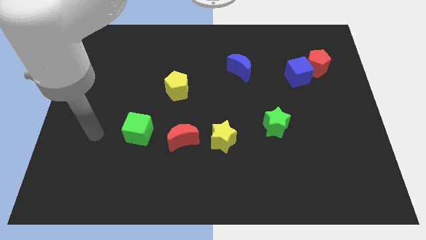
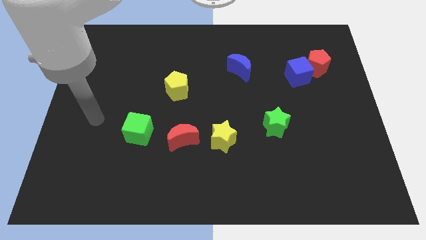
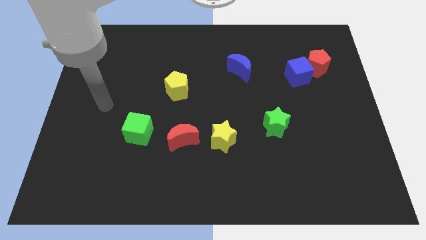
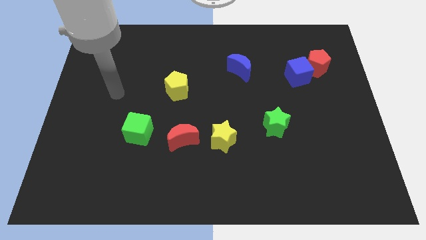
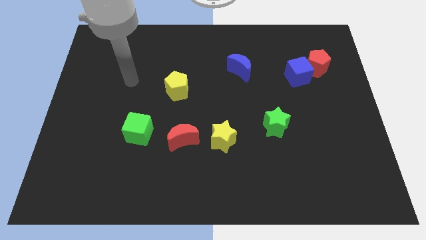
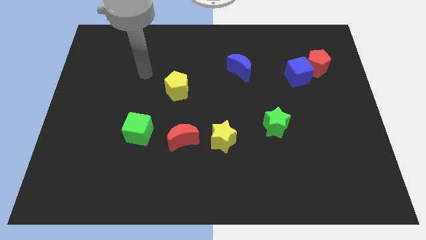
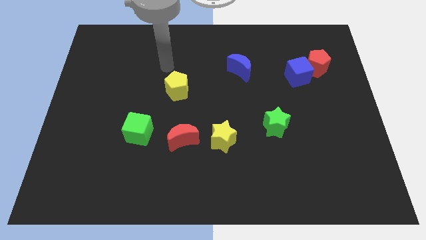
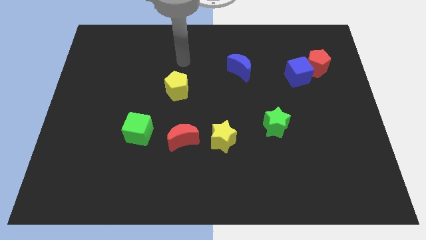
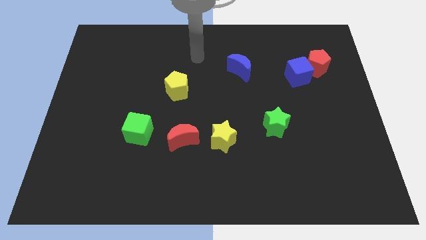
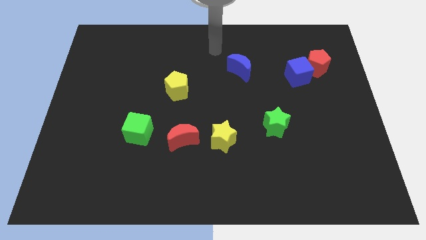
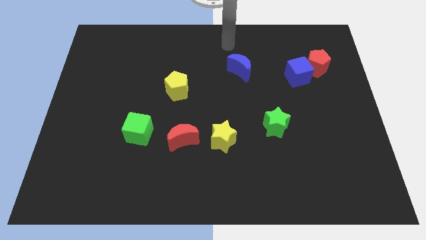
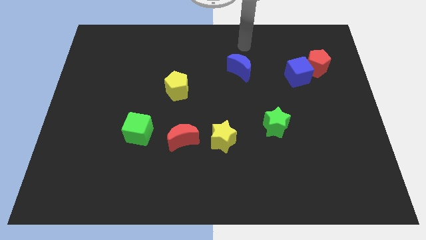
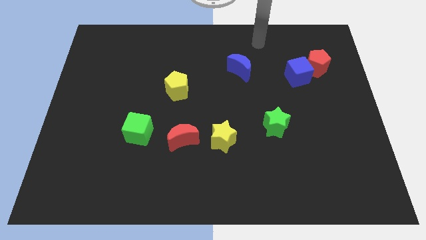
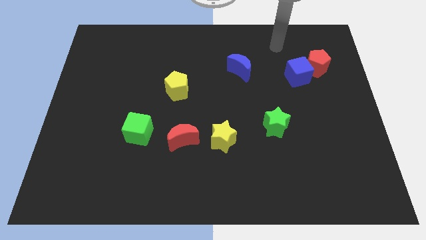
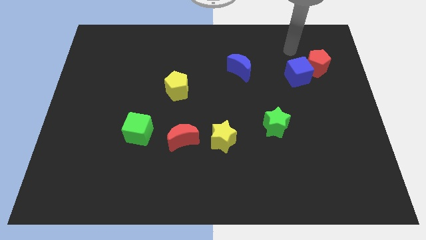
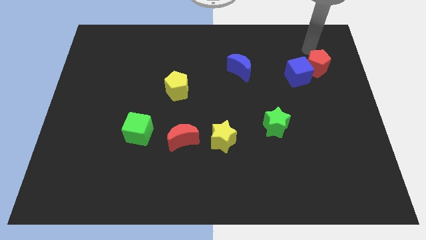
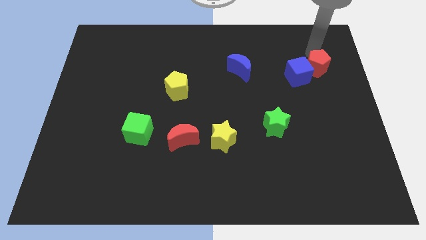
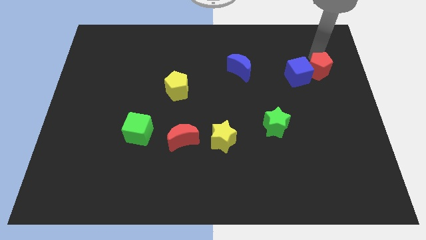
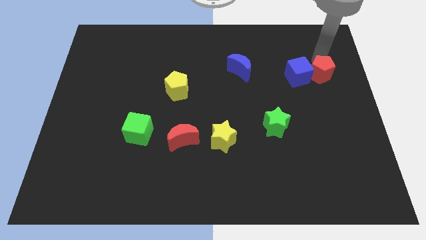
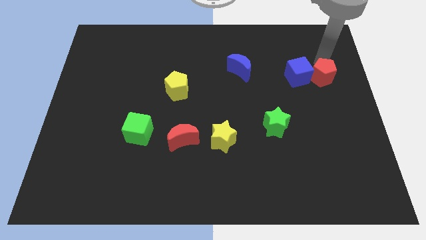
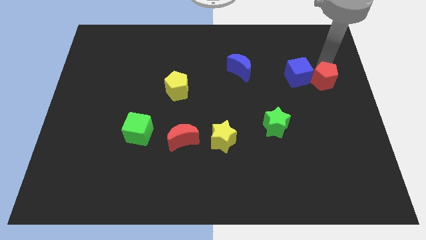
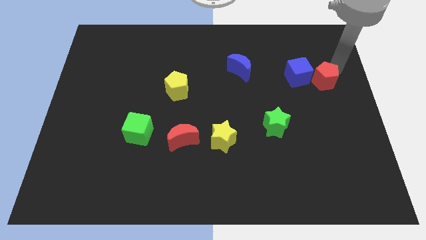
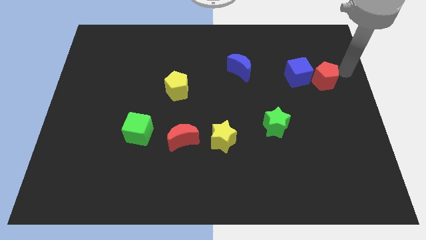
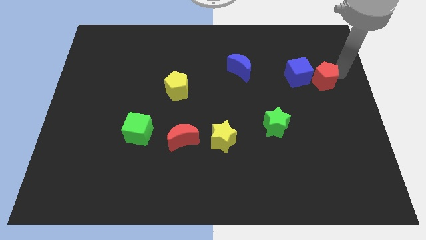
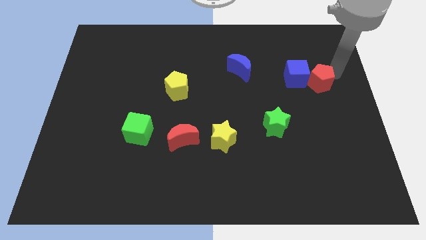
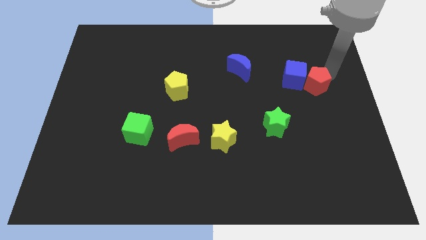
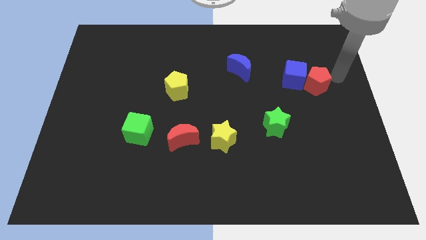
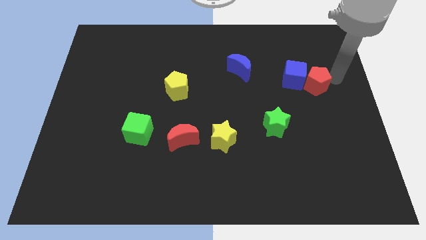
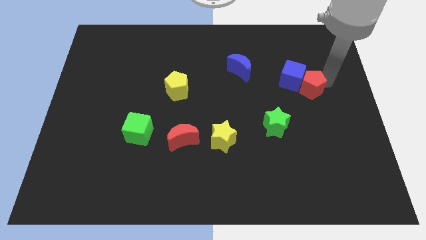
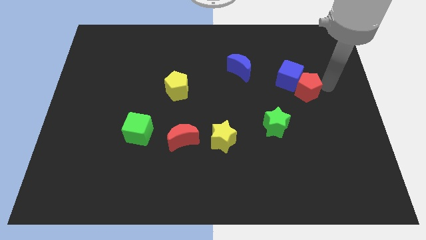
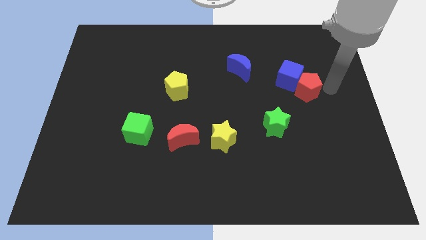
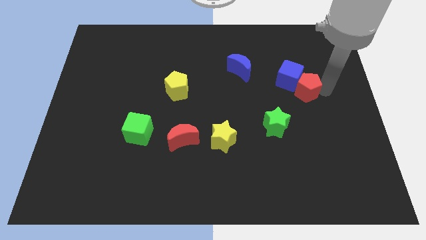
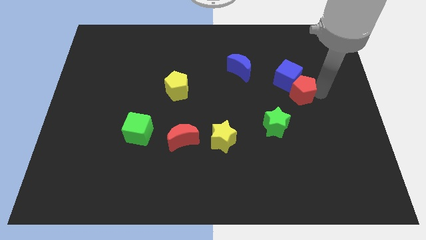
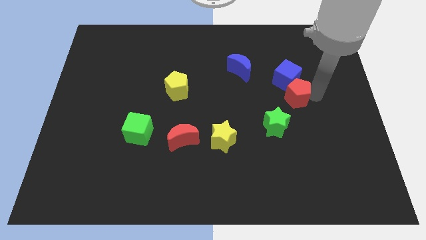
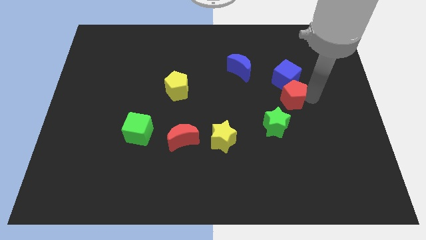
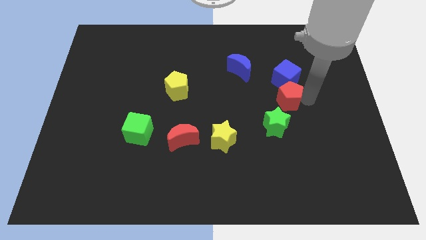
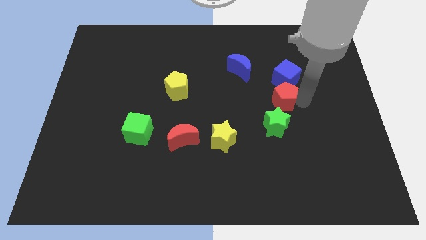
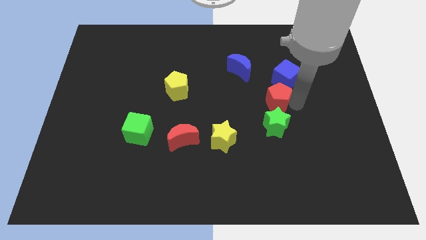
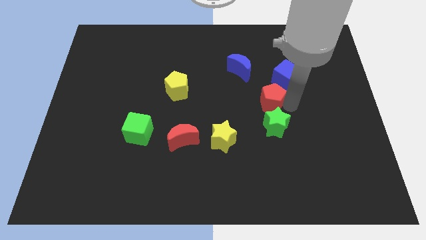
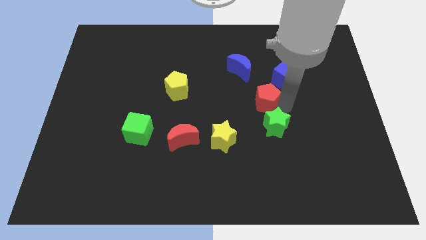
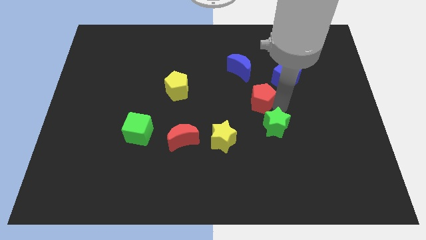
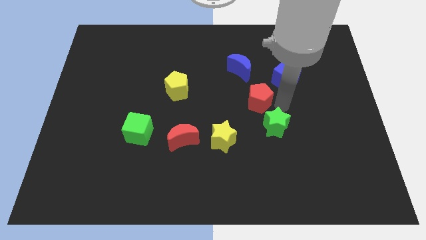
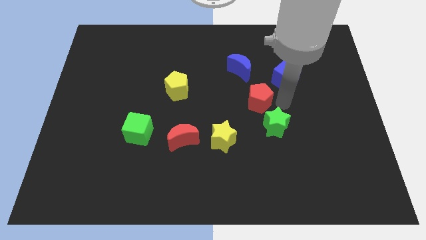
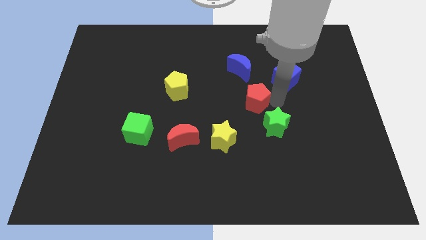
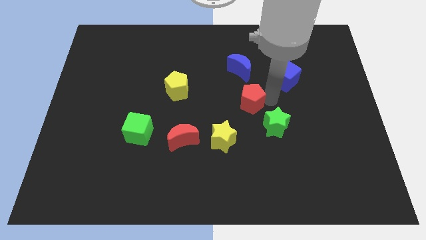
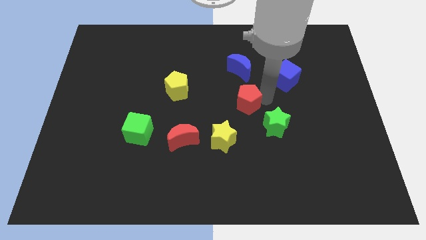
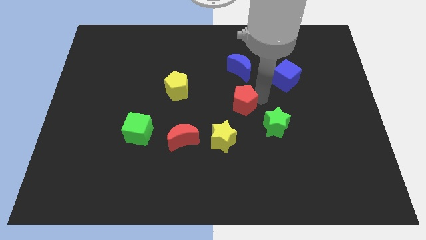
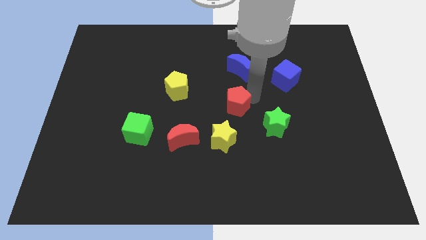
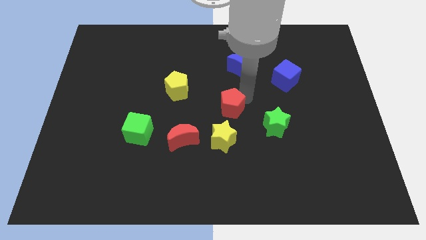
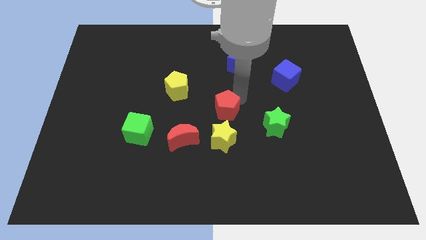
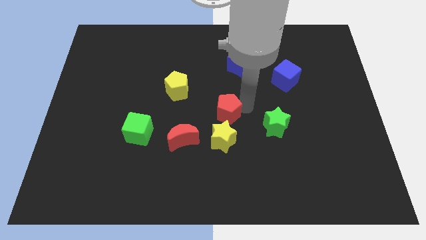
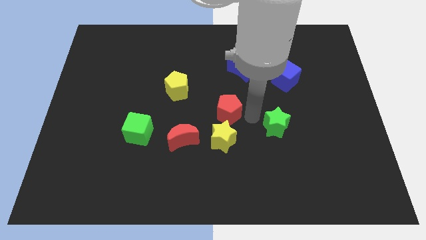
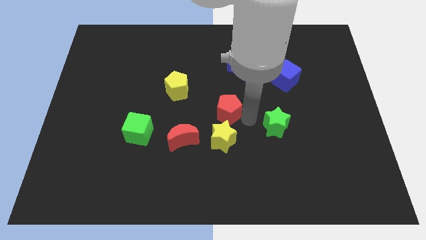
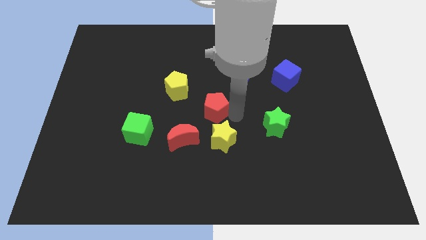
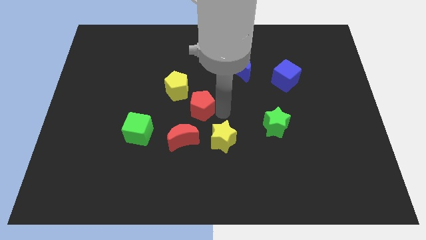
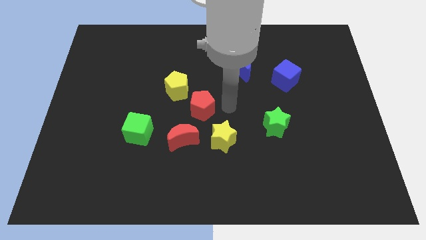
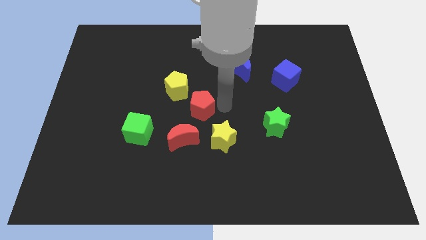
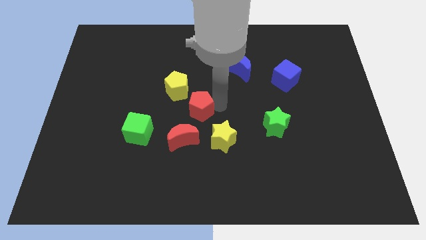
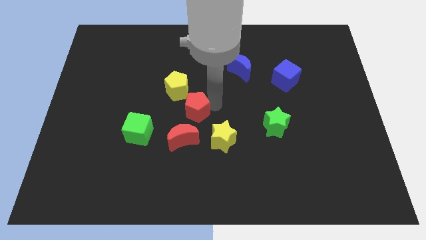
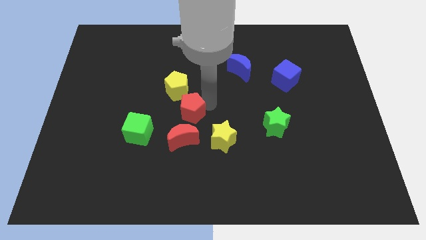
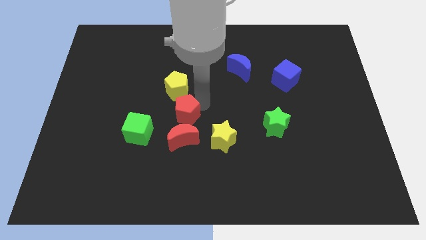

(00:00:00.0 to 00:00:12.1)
move the red pentagon to the top right of the green cube
